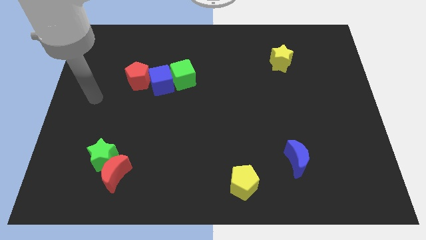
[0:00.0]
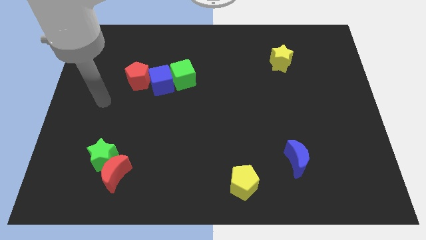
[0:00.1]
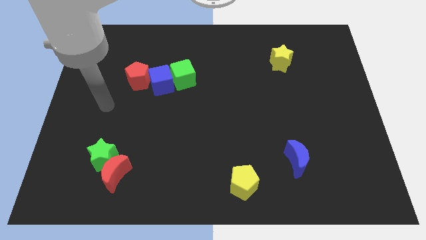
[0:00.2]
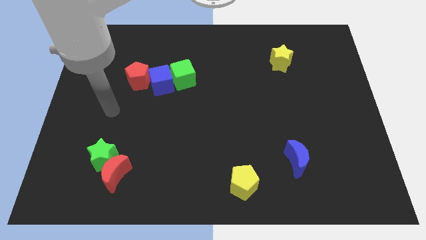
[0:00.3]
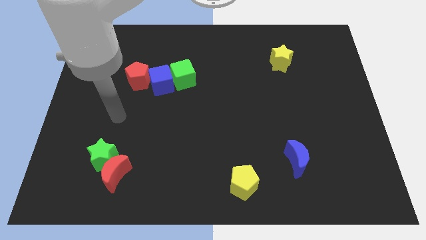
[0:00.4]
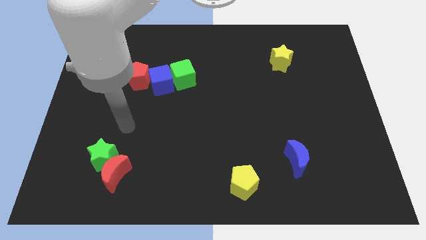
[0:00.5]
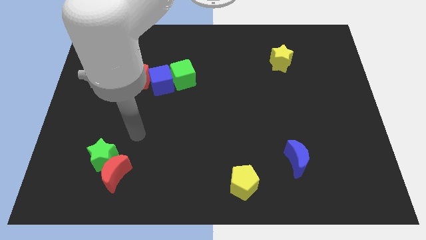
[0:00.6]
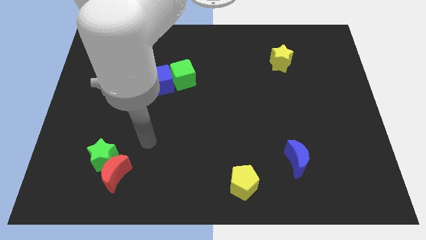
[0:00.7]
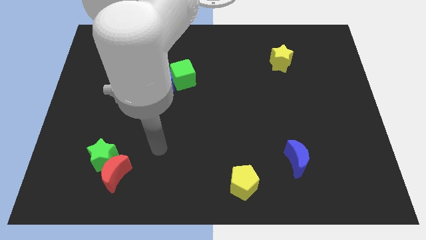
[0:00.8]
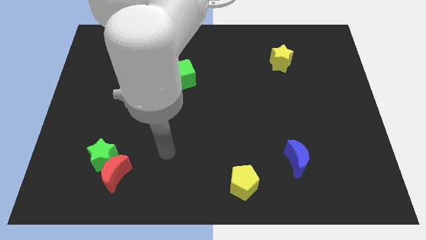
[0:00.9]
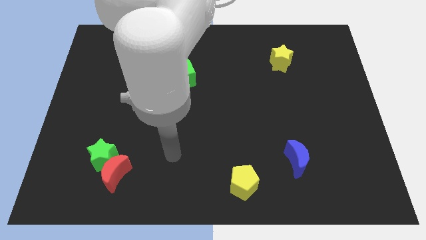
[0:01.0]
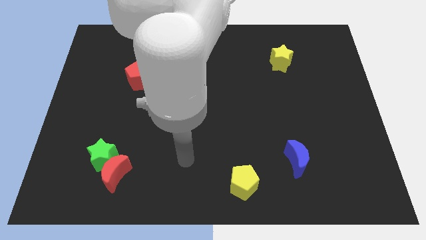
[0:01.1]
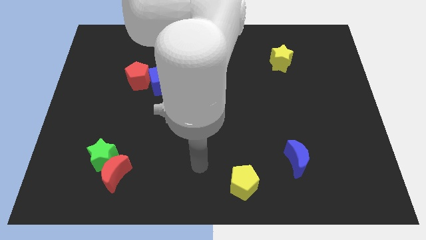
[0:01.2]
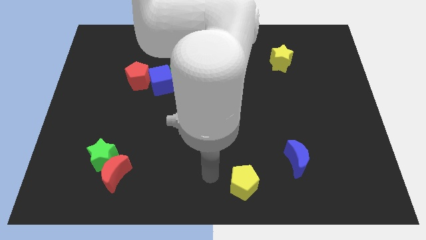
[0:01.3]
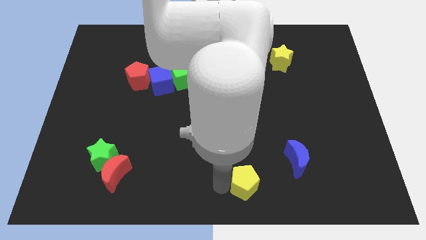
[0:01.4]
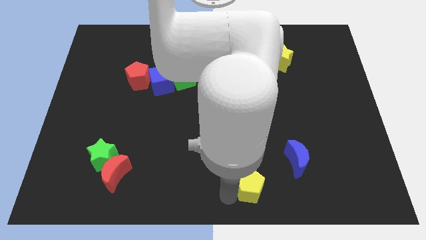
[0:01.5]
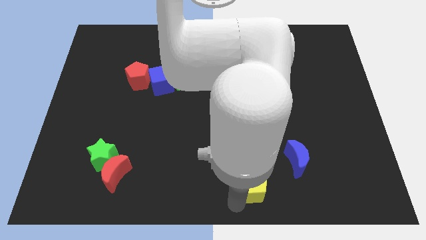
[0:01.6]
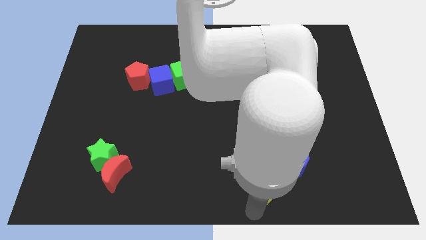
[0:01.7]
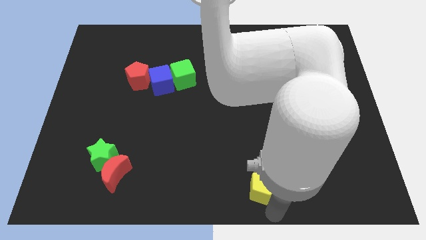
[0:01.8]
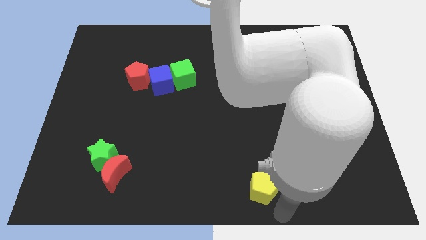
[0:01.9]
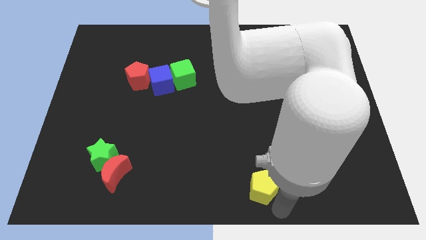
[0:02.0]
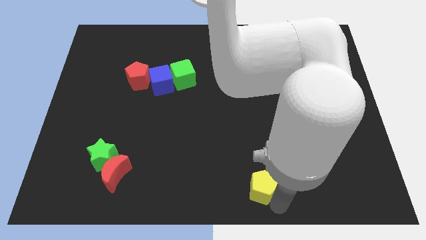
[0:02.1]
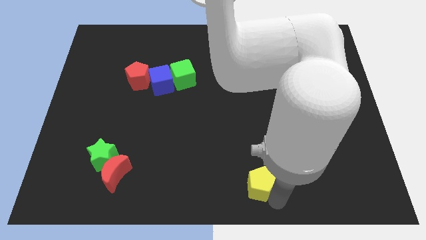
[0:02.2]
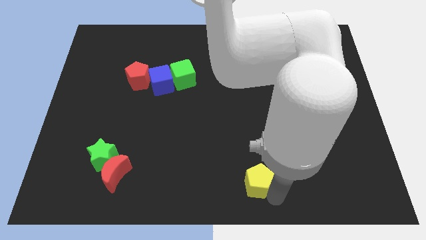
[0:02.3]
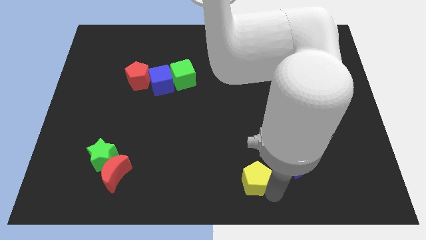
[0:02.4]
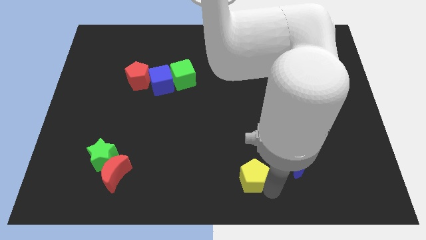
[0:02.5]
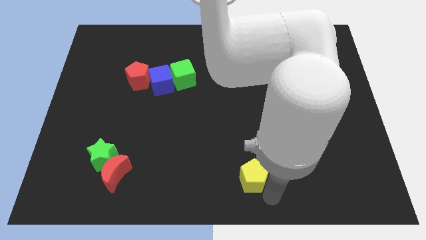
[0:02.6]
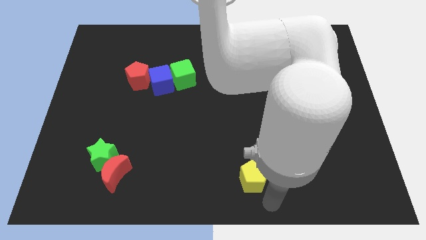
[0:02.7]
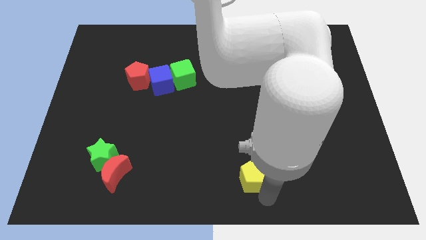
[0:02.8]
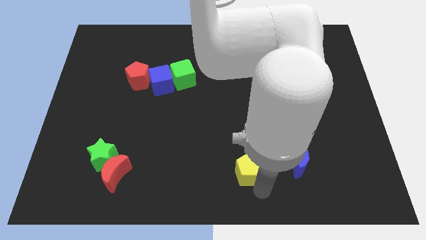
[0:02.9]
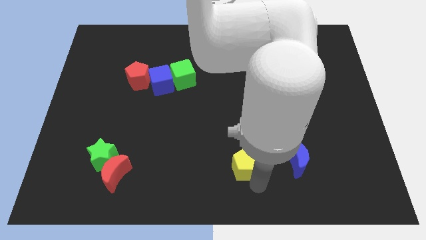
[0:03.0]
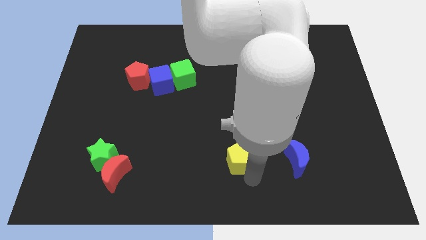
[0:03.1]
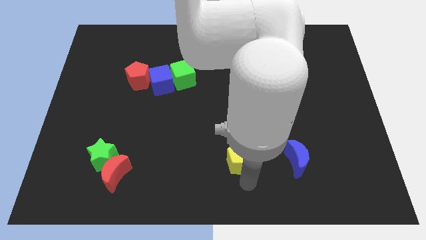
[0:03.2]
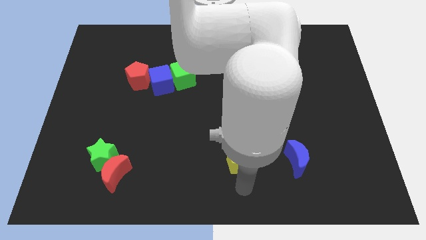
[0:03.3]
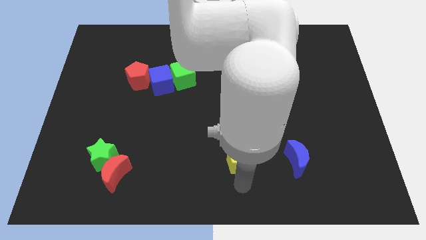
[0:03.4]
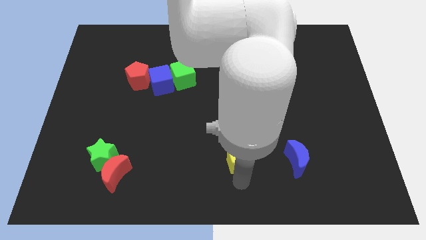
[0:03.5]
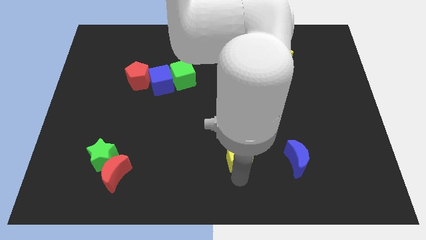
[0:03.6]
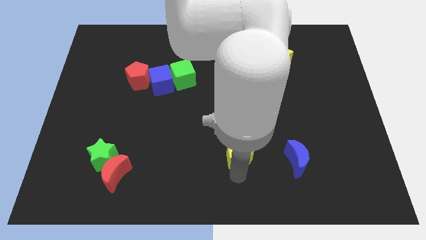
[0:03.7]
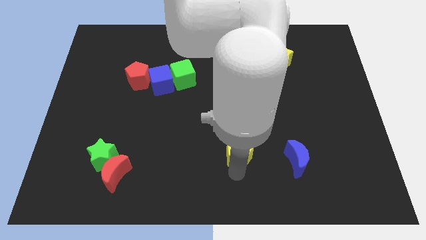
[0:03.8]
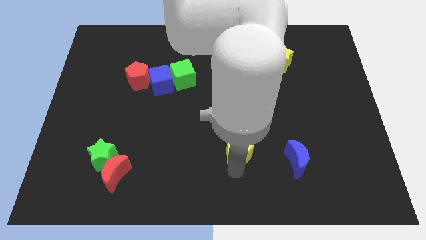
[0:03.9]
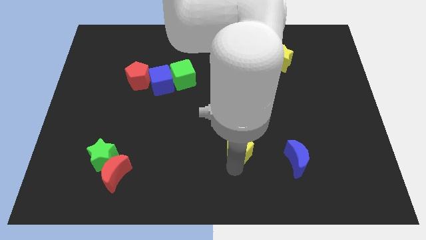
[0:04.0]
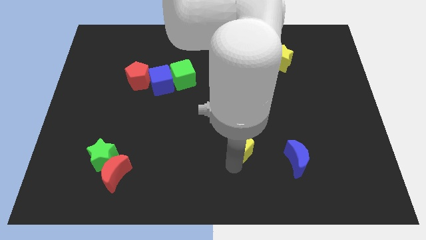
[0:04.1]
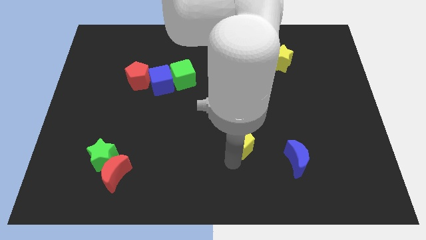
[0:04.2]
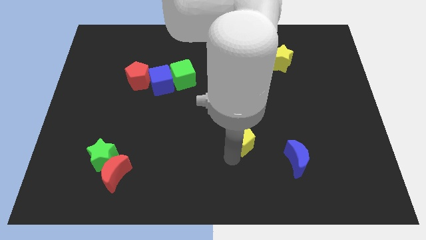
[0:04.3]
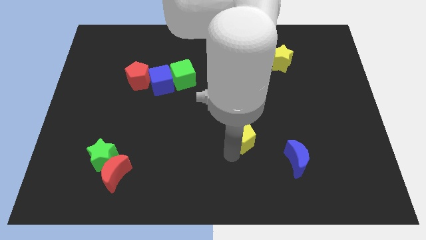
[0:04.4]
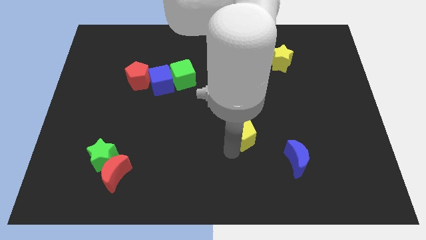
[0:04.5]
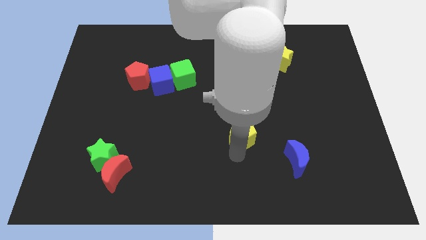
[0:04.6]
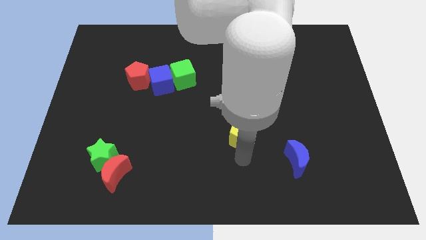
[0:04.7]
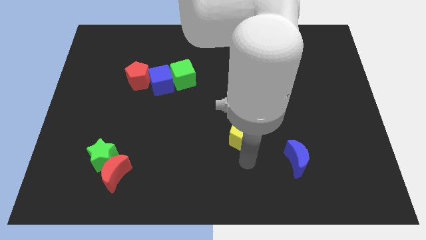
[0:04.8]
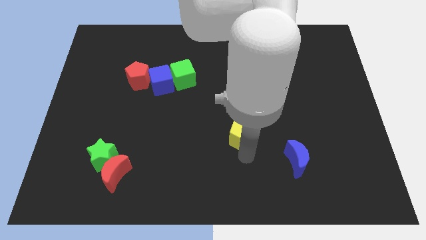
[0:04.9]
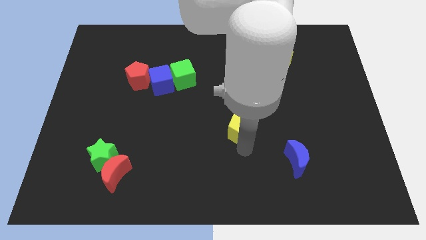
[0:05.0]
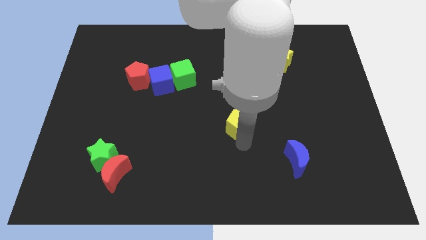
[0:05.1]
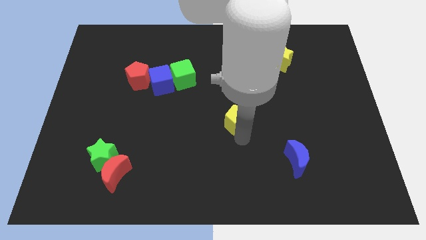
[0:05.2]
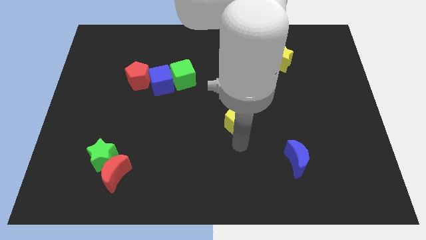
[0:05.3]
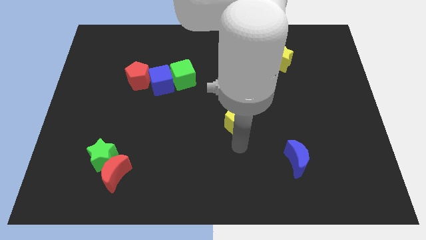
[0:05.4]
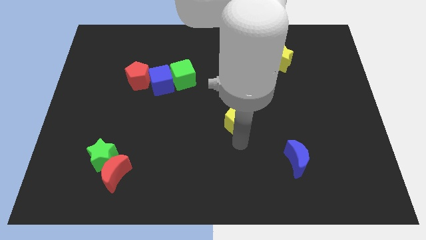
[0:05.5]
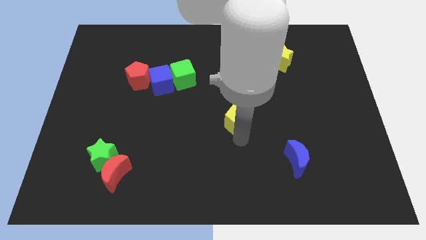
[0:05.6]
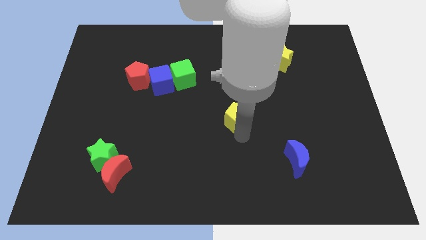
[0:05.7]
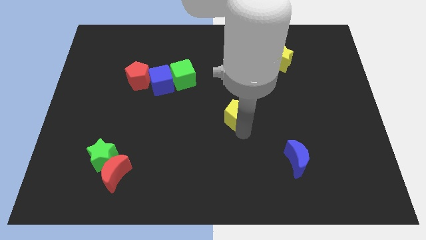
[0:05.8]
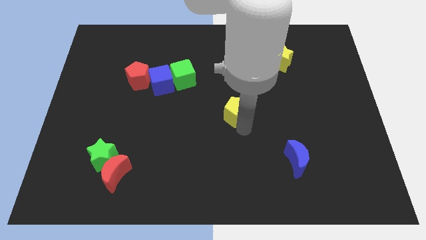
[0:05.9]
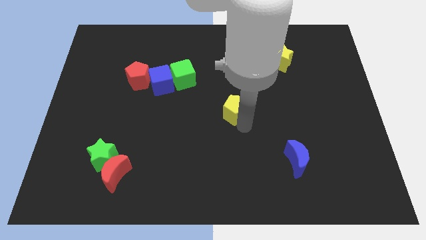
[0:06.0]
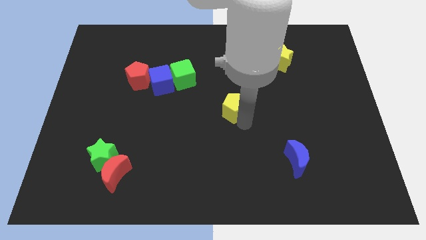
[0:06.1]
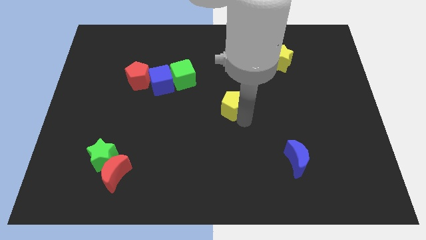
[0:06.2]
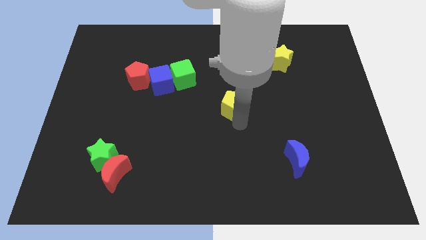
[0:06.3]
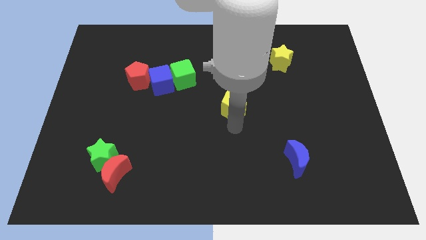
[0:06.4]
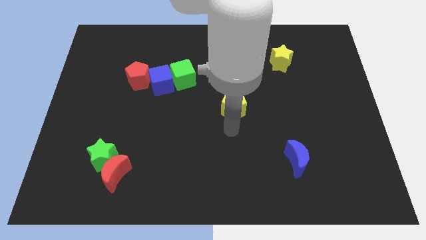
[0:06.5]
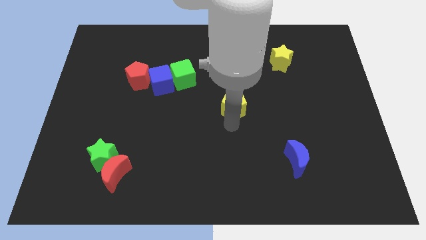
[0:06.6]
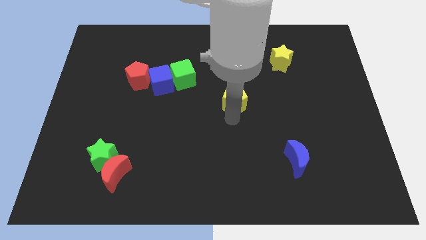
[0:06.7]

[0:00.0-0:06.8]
push the yellow pentagon up

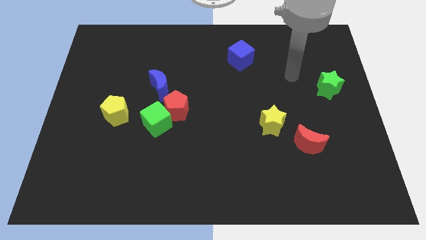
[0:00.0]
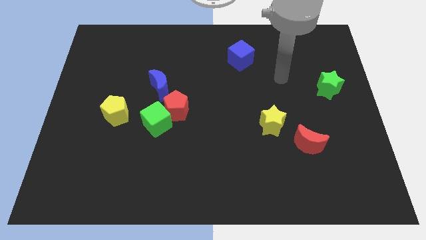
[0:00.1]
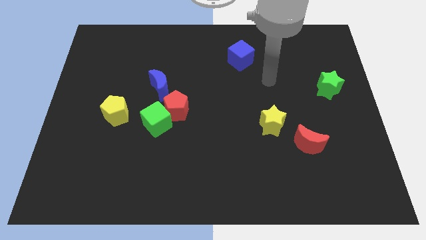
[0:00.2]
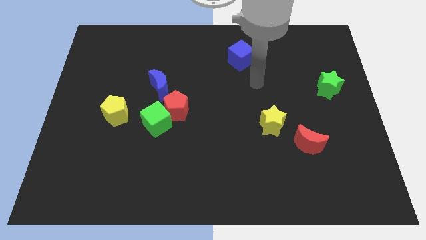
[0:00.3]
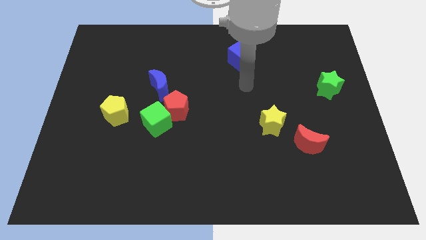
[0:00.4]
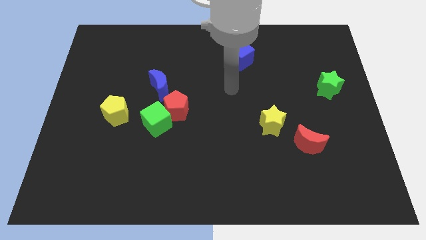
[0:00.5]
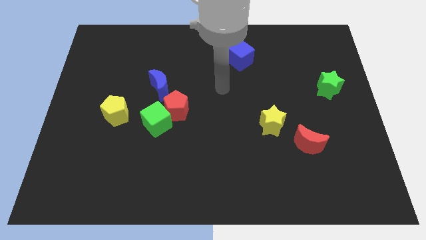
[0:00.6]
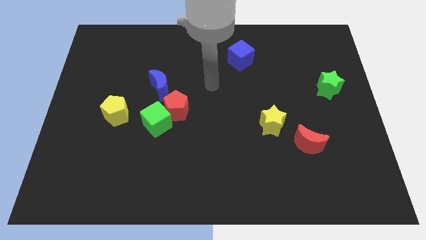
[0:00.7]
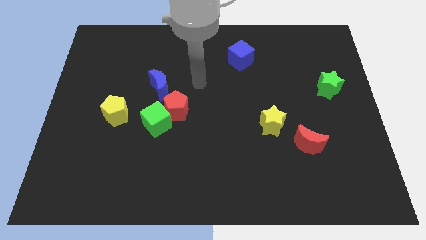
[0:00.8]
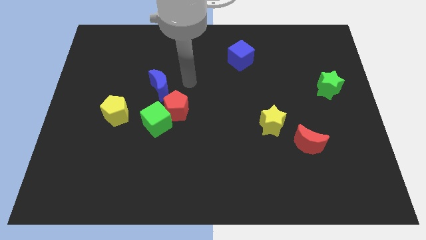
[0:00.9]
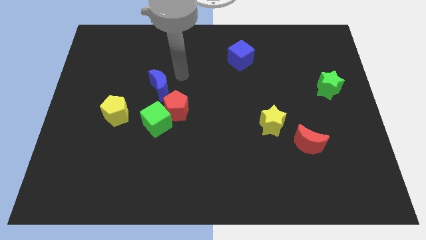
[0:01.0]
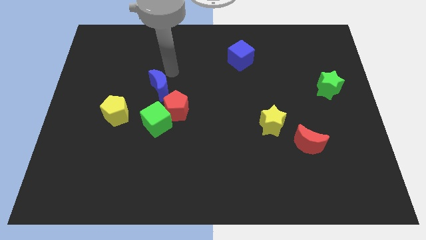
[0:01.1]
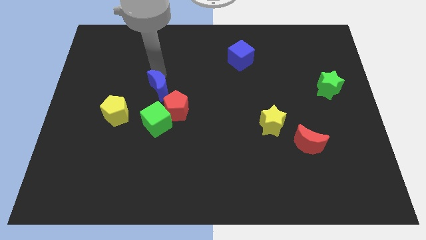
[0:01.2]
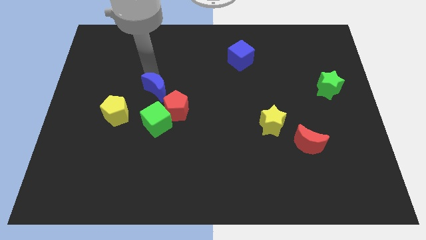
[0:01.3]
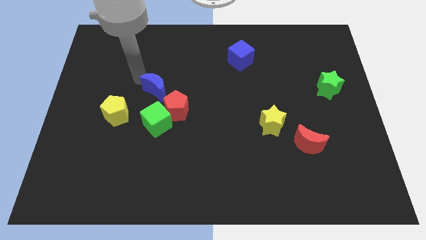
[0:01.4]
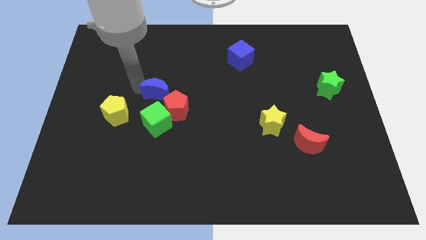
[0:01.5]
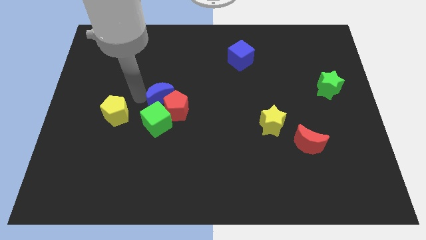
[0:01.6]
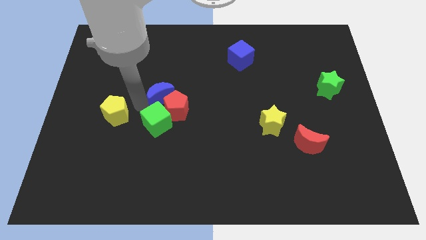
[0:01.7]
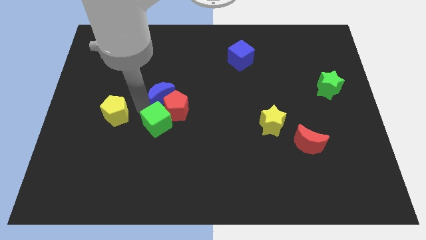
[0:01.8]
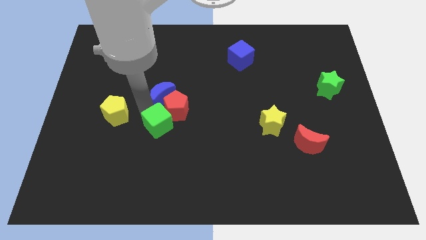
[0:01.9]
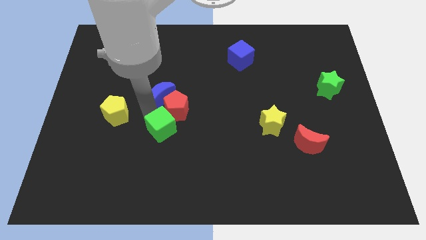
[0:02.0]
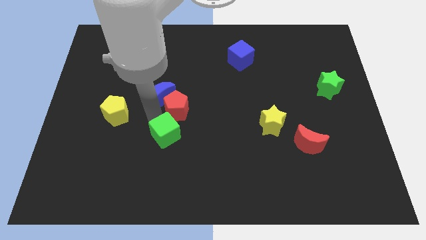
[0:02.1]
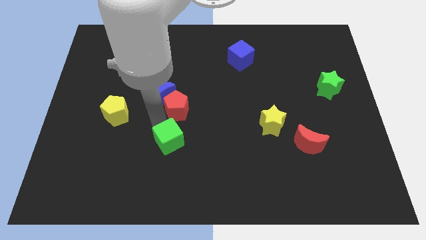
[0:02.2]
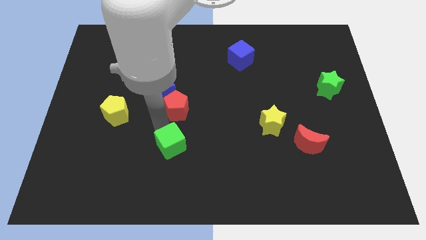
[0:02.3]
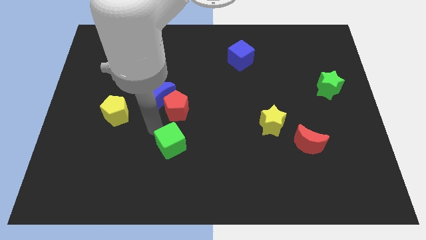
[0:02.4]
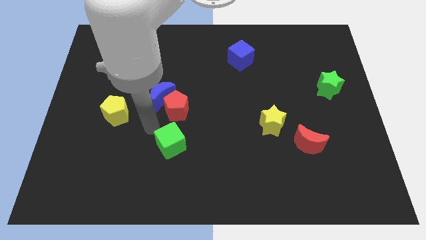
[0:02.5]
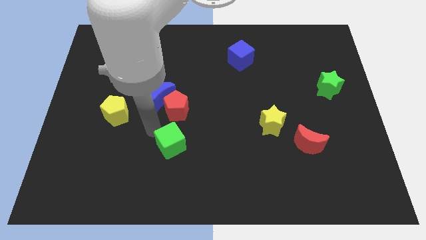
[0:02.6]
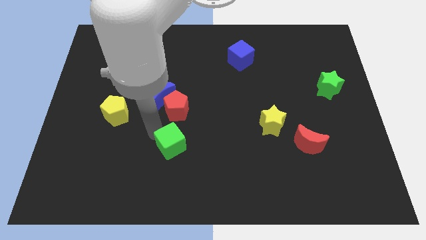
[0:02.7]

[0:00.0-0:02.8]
slide the green cube somewhat downwards and then to the right
